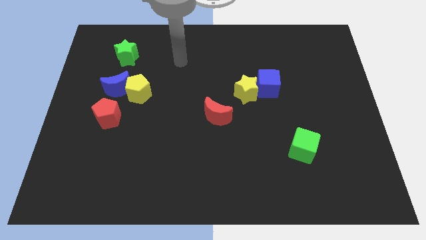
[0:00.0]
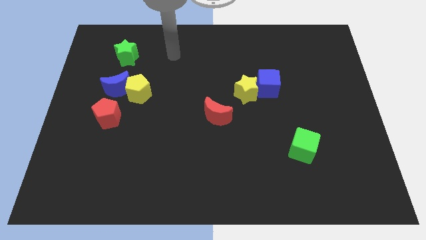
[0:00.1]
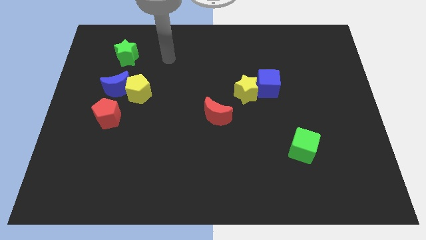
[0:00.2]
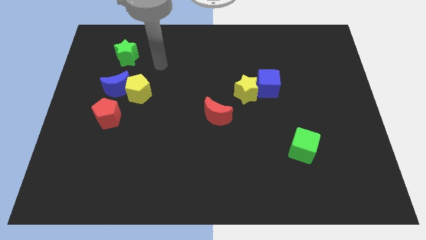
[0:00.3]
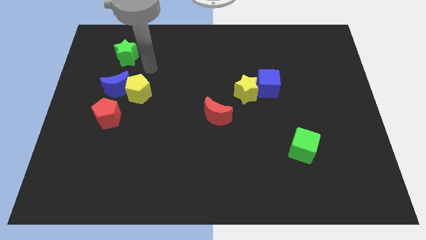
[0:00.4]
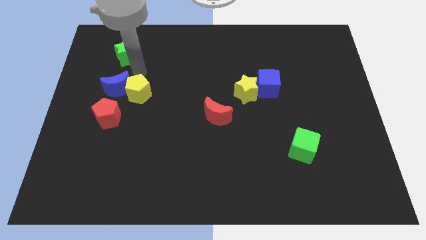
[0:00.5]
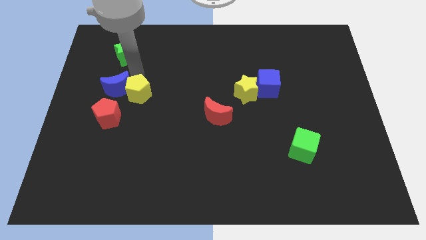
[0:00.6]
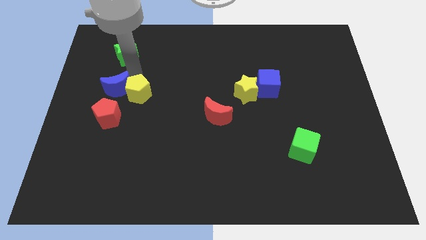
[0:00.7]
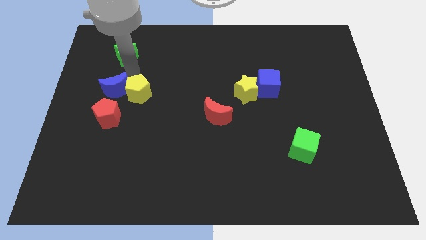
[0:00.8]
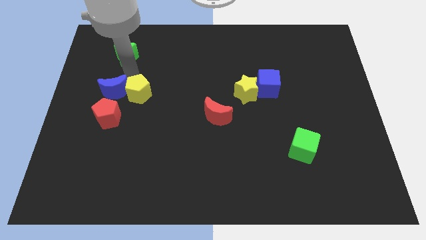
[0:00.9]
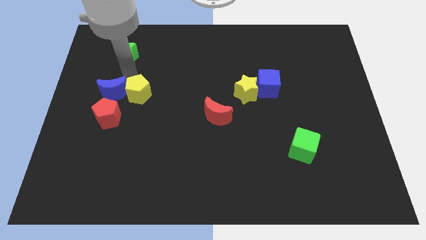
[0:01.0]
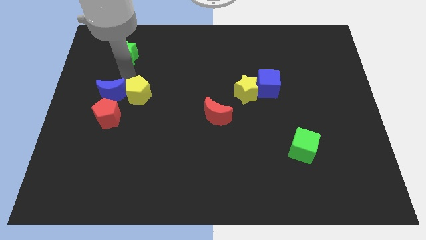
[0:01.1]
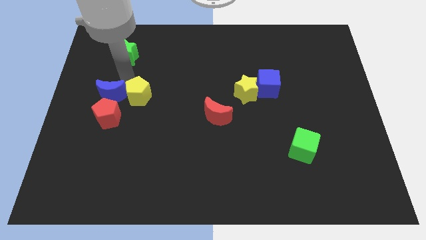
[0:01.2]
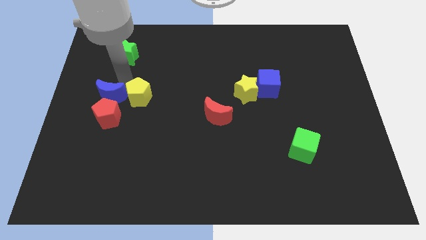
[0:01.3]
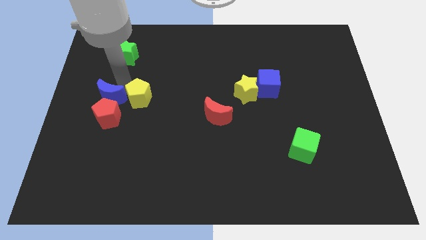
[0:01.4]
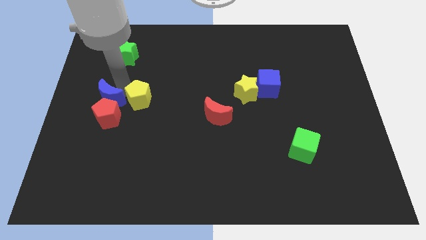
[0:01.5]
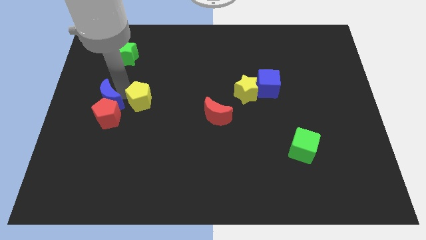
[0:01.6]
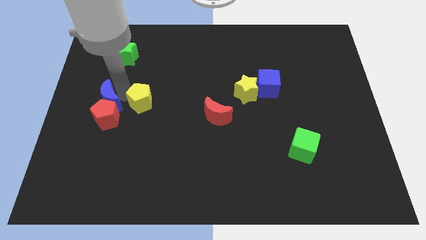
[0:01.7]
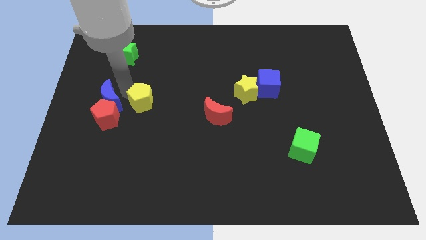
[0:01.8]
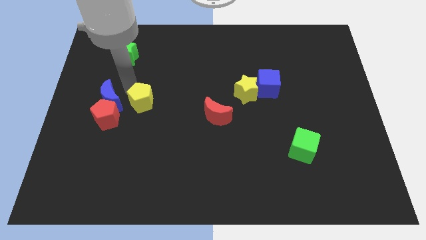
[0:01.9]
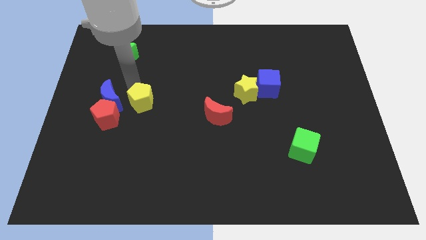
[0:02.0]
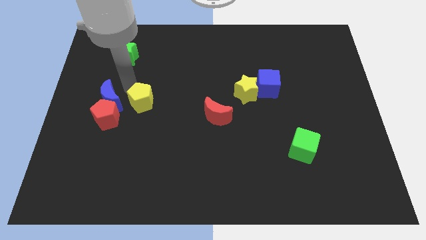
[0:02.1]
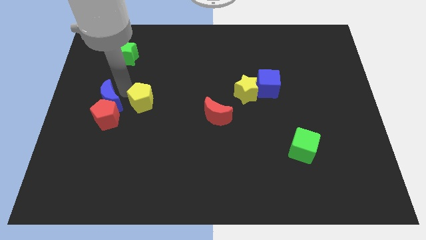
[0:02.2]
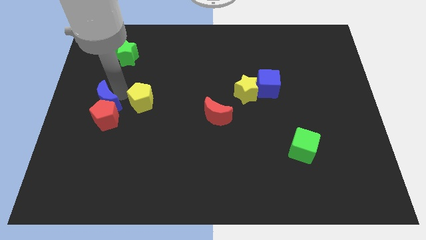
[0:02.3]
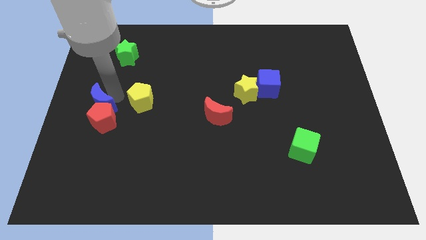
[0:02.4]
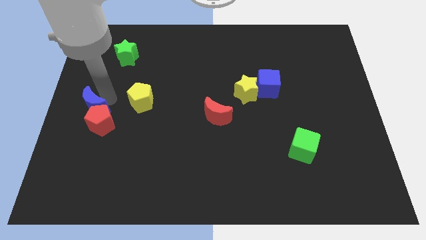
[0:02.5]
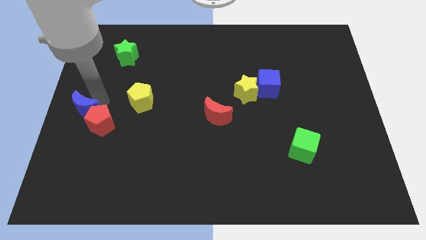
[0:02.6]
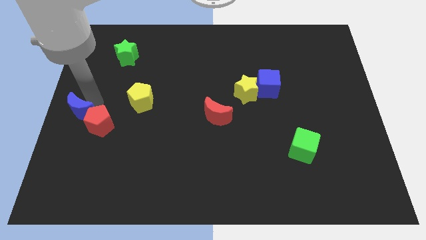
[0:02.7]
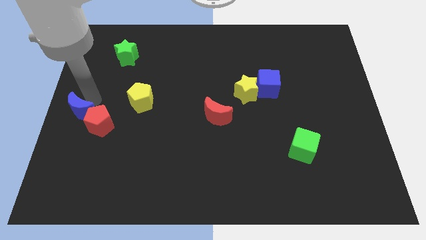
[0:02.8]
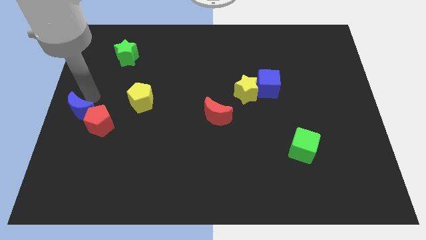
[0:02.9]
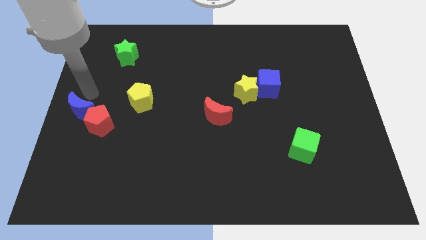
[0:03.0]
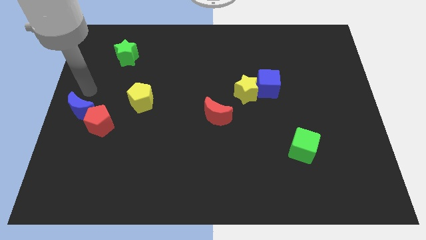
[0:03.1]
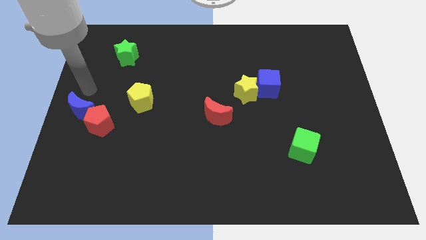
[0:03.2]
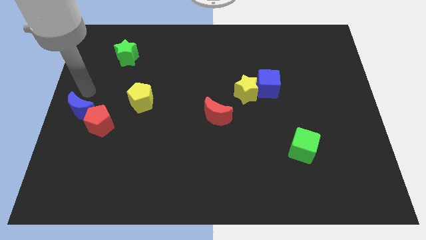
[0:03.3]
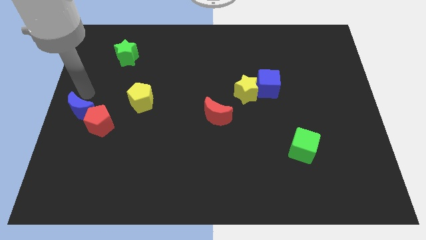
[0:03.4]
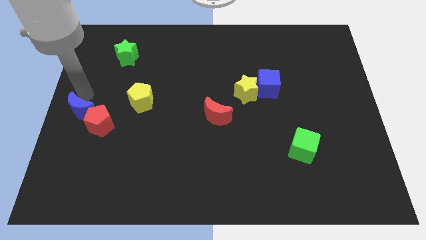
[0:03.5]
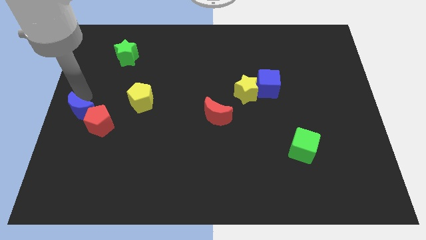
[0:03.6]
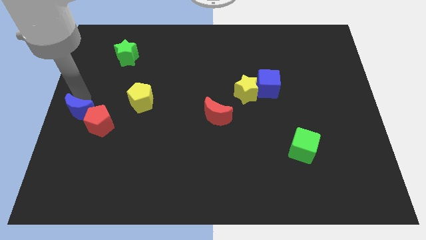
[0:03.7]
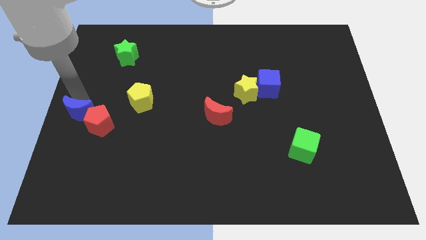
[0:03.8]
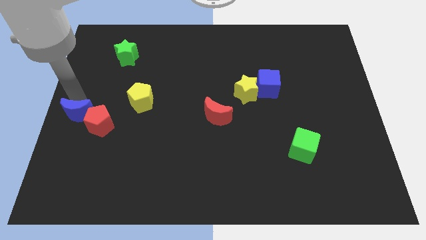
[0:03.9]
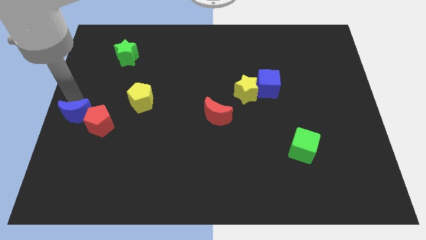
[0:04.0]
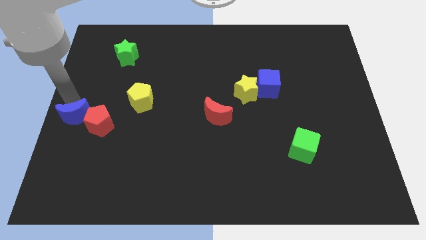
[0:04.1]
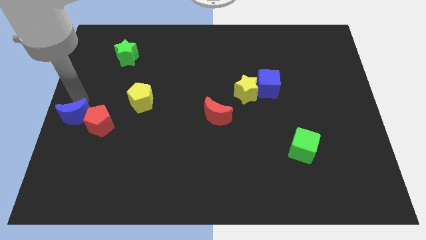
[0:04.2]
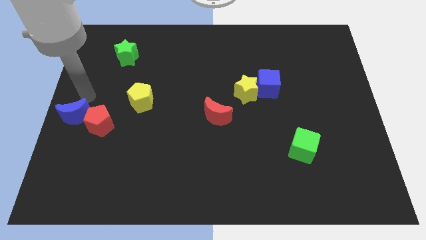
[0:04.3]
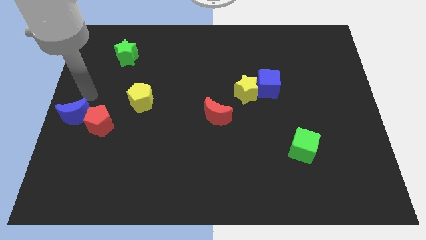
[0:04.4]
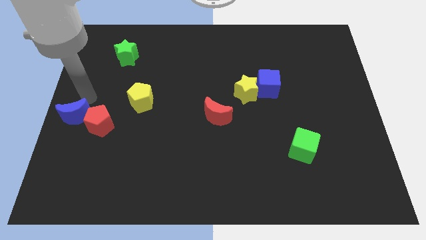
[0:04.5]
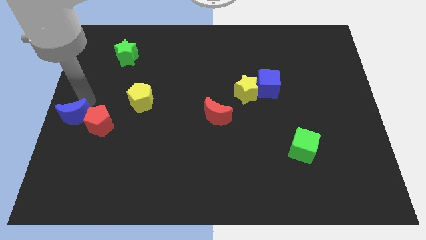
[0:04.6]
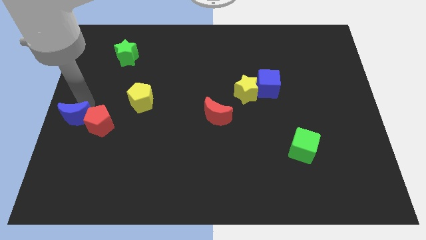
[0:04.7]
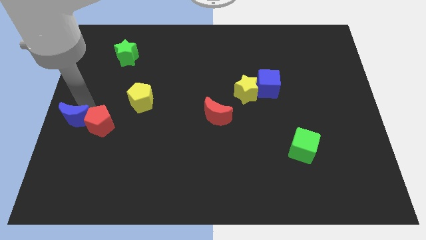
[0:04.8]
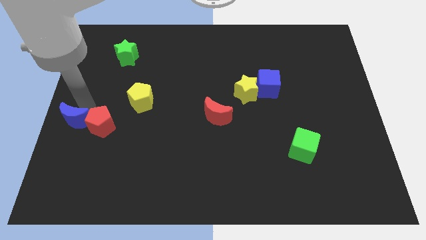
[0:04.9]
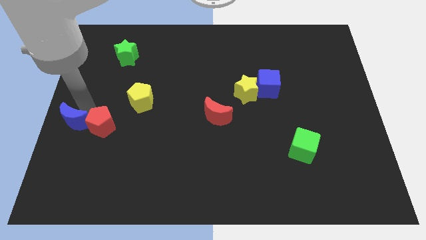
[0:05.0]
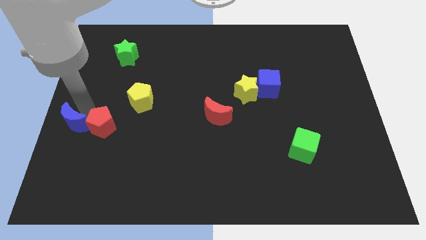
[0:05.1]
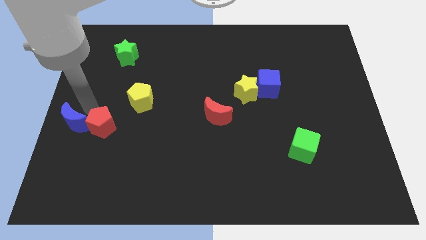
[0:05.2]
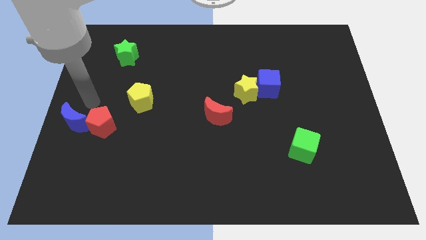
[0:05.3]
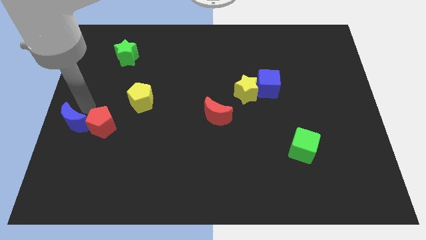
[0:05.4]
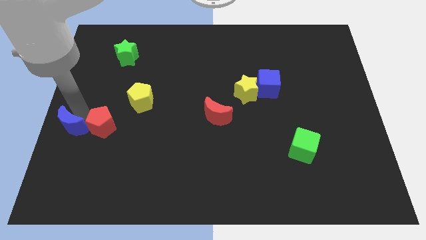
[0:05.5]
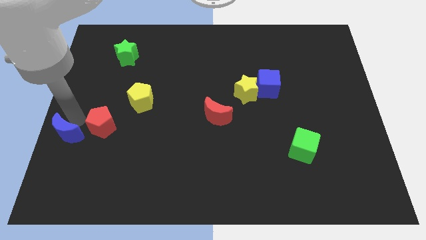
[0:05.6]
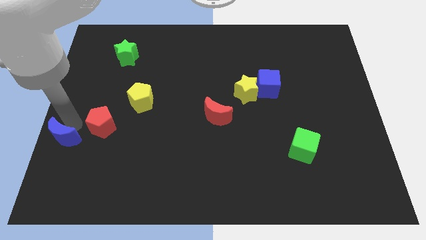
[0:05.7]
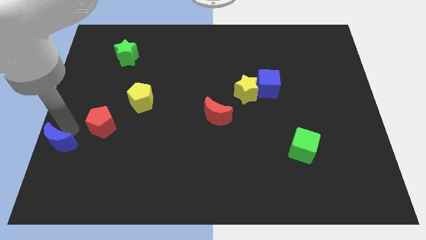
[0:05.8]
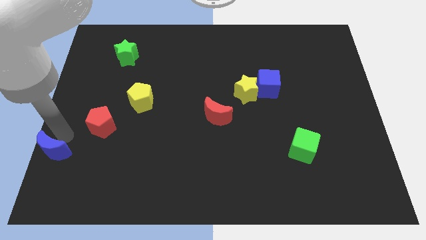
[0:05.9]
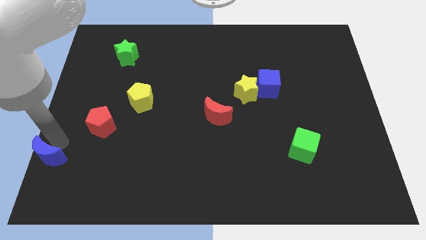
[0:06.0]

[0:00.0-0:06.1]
put the blue moon to the bottom left of the board
